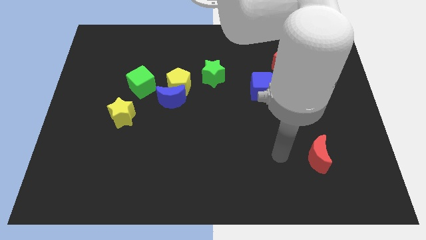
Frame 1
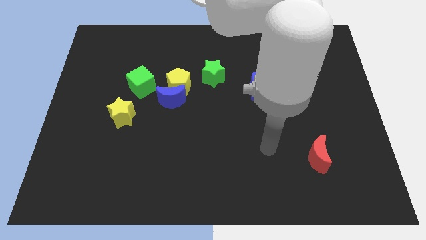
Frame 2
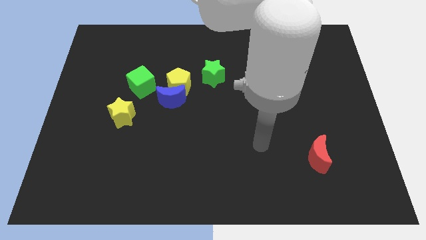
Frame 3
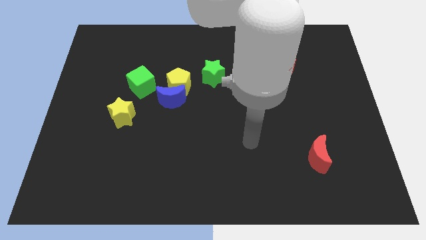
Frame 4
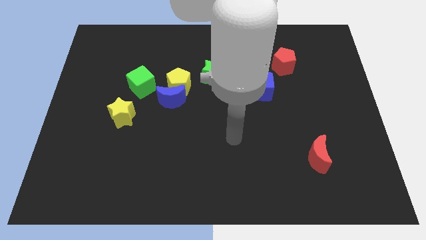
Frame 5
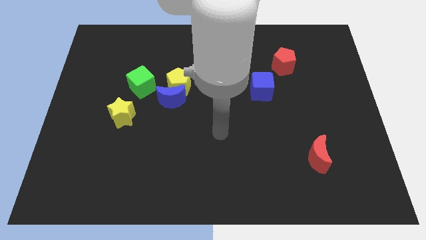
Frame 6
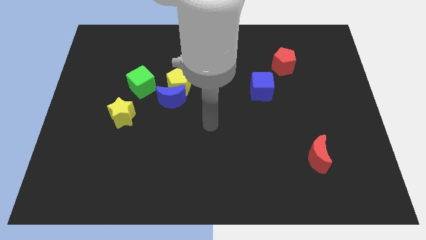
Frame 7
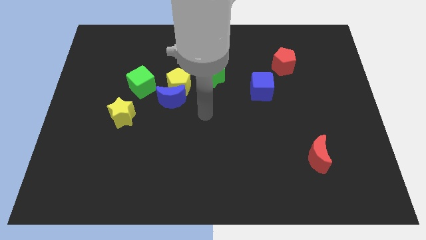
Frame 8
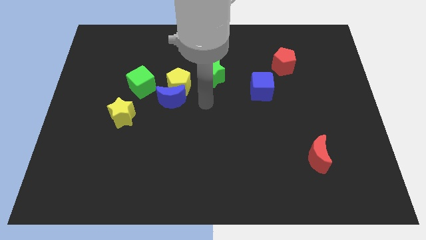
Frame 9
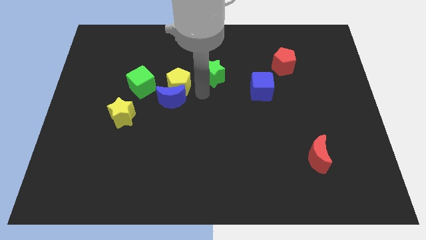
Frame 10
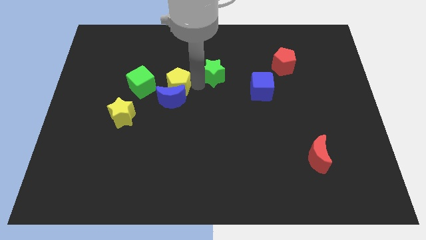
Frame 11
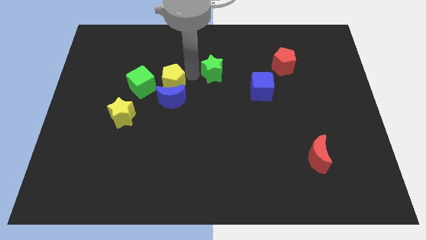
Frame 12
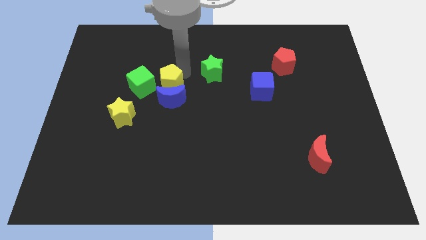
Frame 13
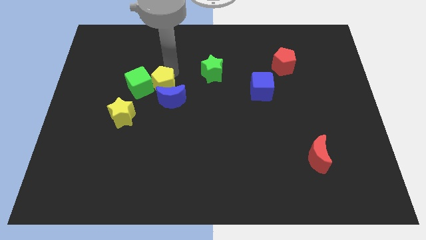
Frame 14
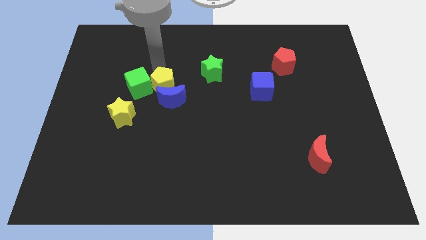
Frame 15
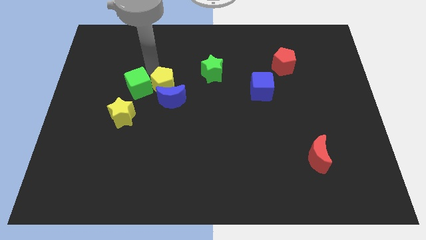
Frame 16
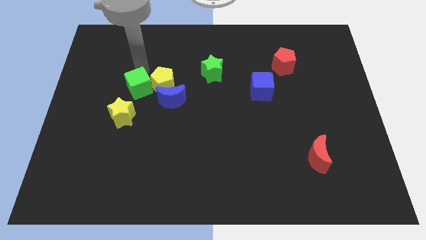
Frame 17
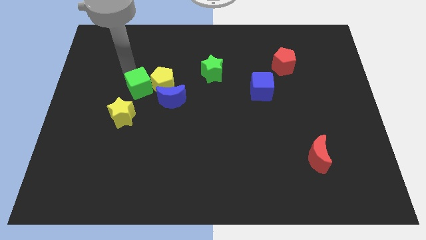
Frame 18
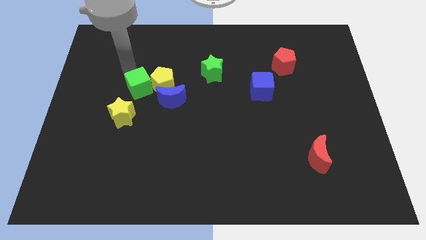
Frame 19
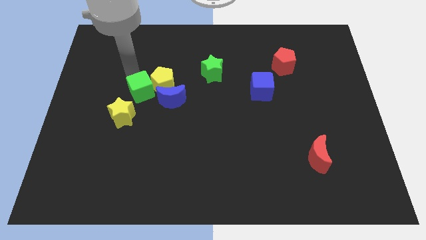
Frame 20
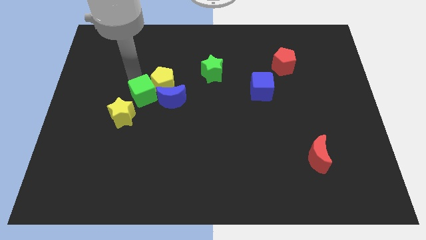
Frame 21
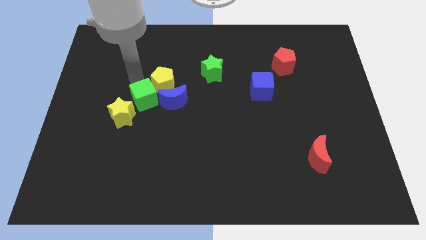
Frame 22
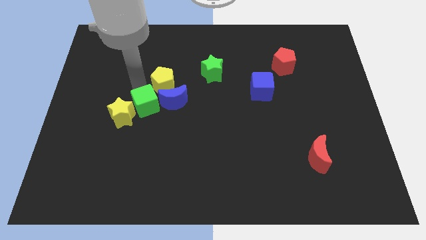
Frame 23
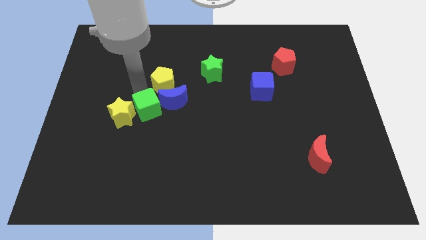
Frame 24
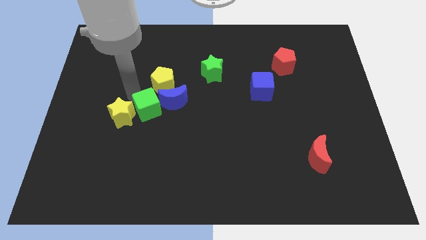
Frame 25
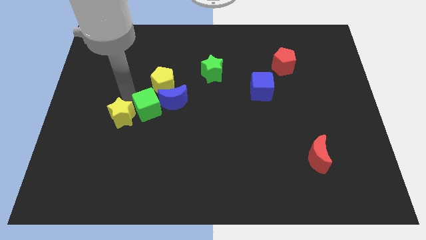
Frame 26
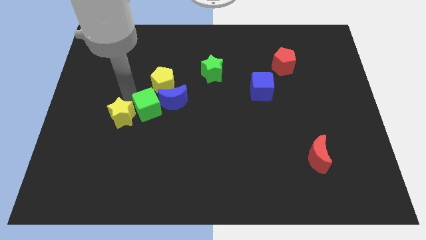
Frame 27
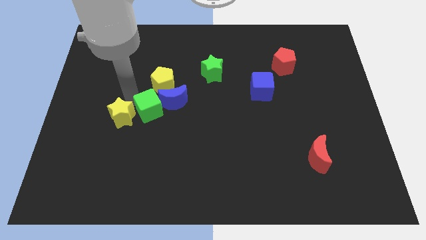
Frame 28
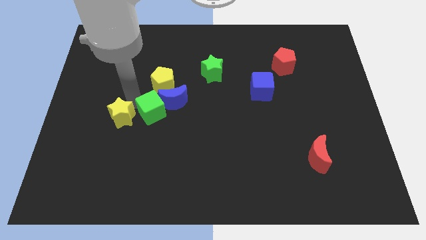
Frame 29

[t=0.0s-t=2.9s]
slide the green cube downwards and then right a bit

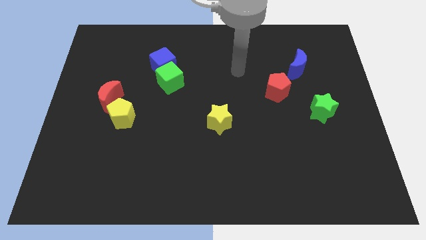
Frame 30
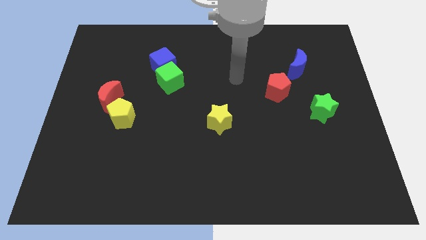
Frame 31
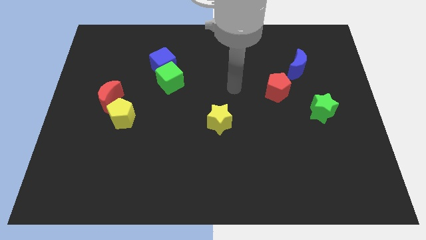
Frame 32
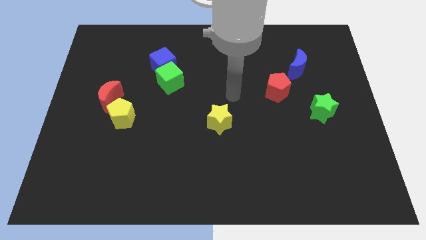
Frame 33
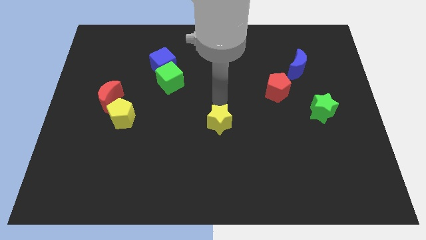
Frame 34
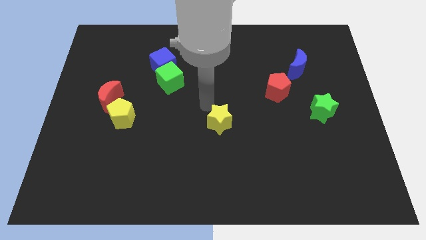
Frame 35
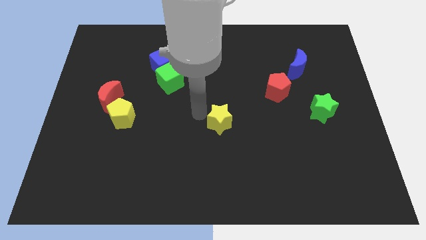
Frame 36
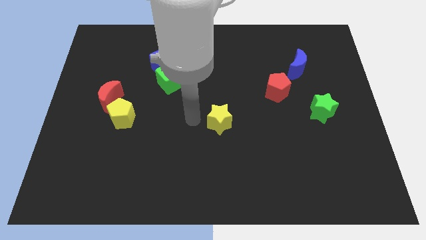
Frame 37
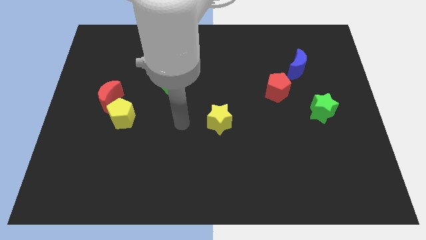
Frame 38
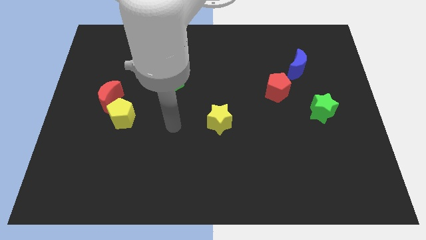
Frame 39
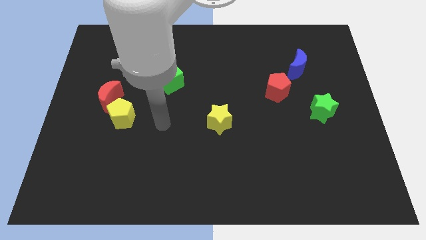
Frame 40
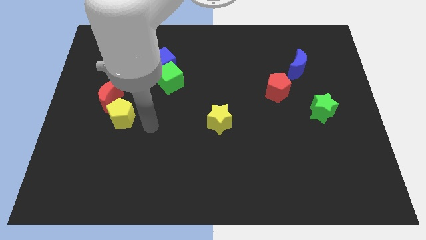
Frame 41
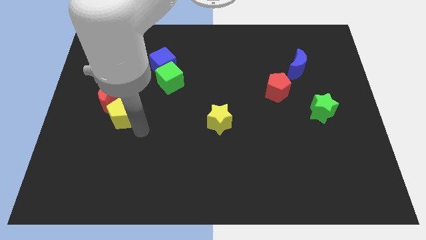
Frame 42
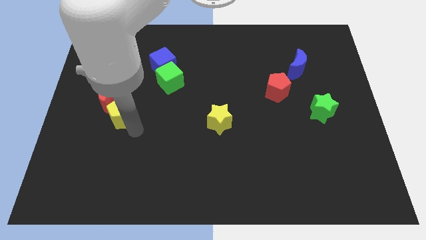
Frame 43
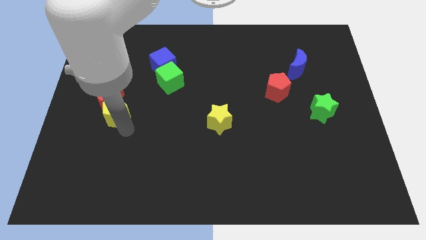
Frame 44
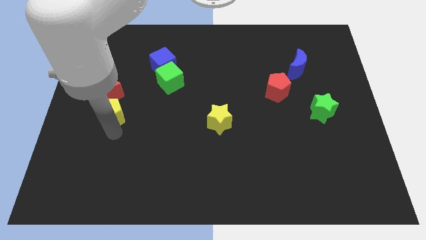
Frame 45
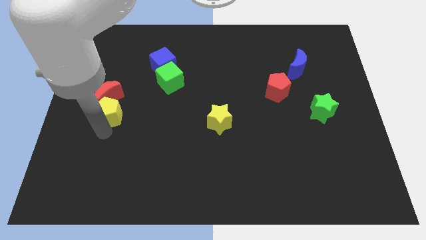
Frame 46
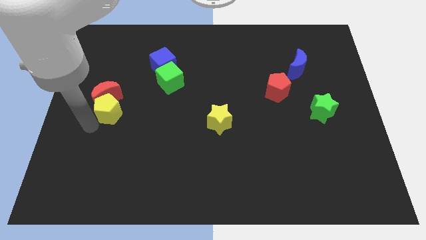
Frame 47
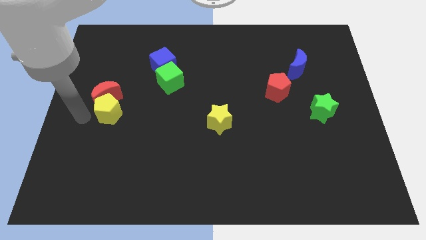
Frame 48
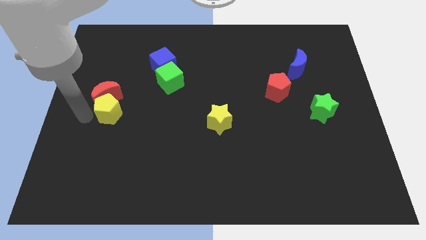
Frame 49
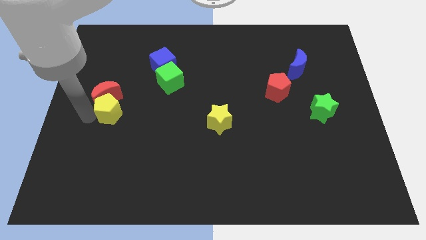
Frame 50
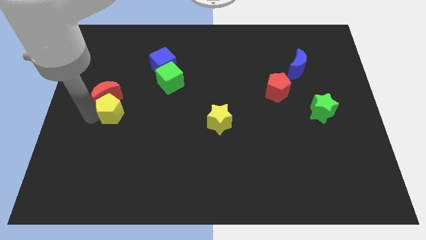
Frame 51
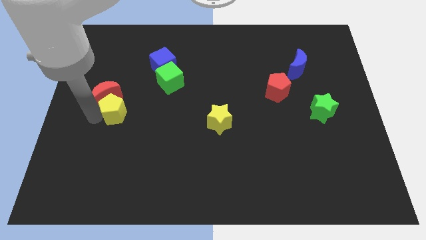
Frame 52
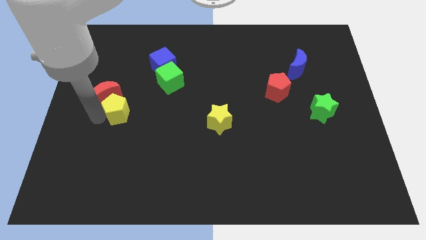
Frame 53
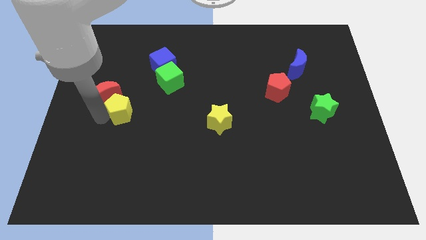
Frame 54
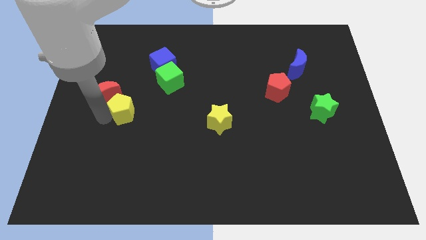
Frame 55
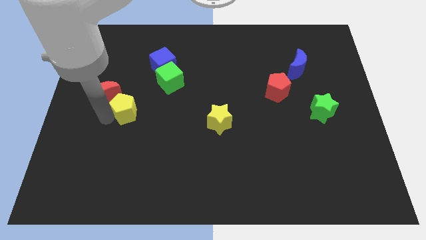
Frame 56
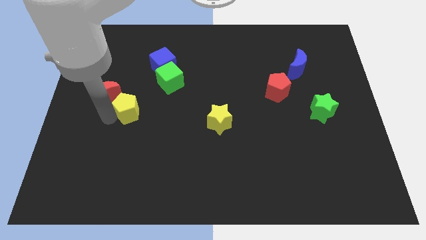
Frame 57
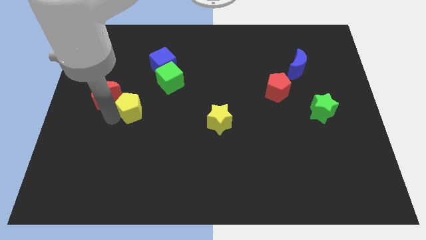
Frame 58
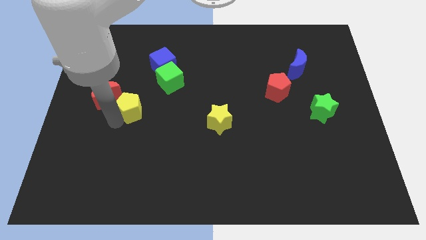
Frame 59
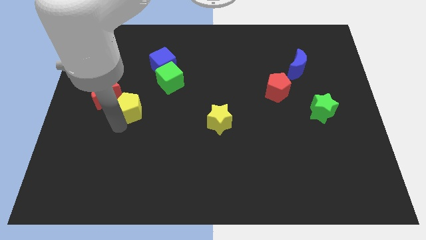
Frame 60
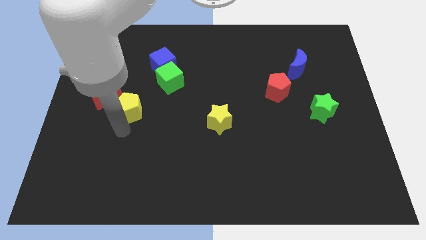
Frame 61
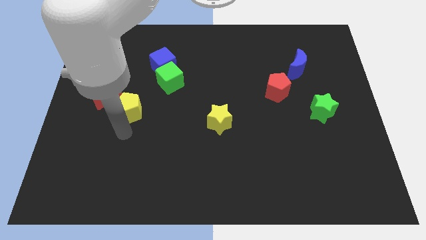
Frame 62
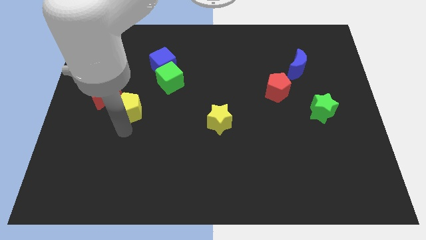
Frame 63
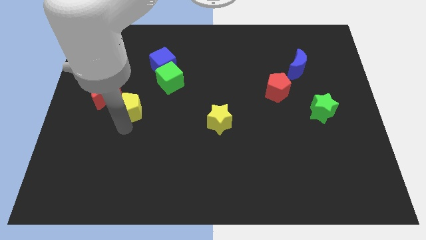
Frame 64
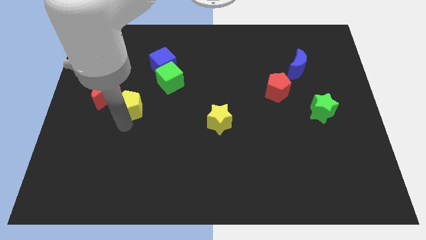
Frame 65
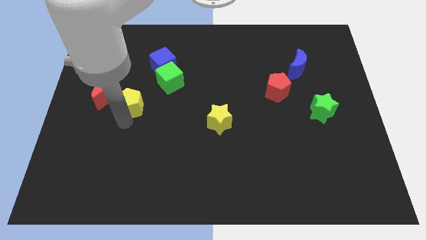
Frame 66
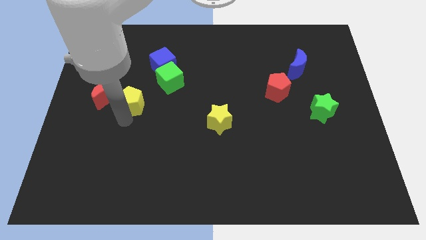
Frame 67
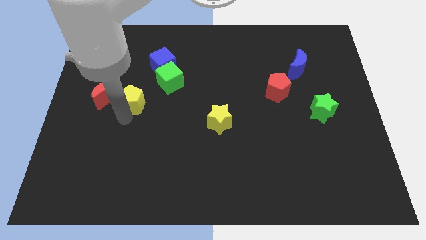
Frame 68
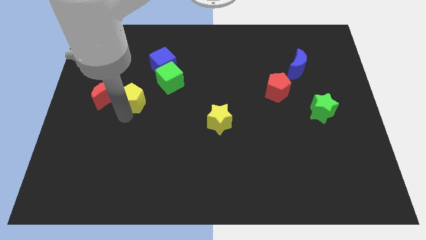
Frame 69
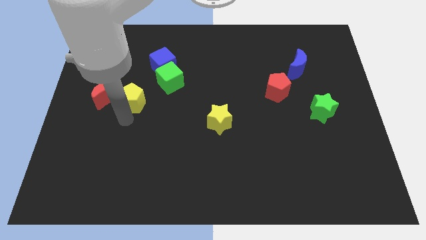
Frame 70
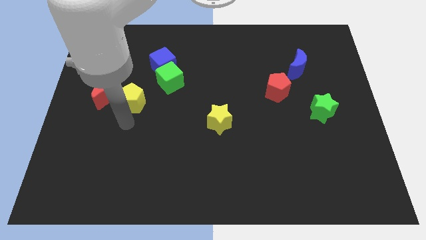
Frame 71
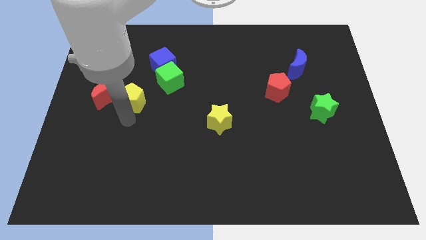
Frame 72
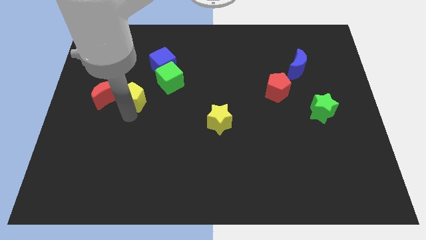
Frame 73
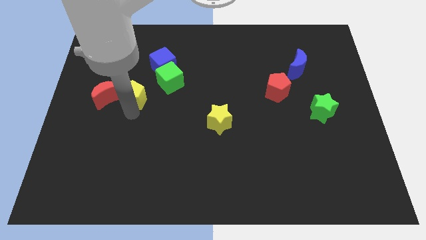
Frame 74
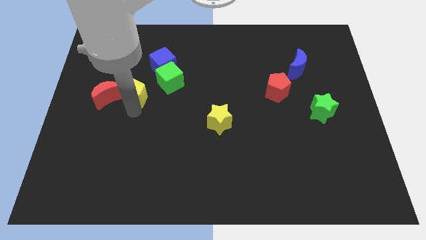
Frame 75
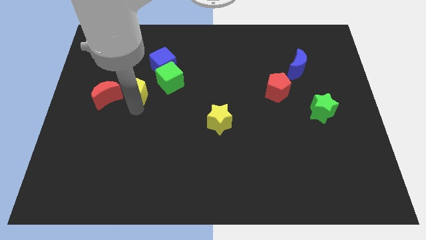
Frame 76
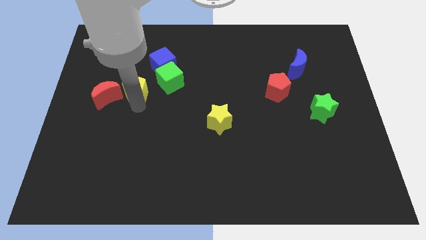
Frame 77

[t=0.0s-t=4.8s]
push the yellow pentagon somewhat up

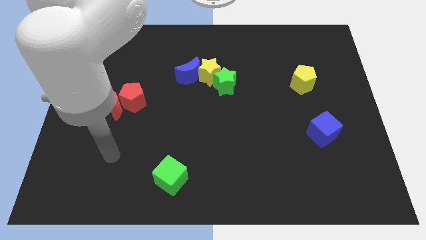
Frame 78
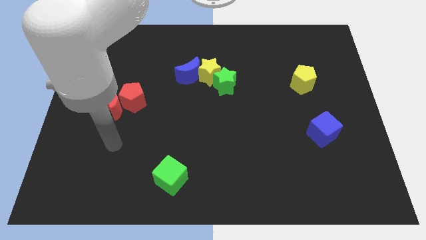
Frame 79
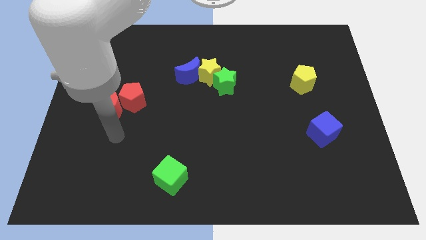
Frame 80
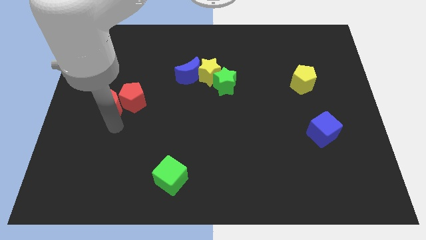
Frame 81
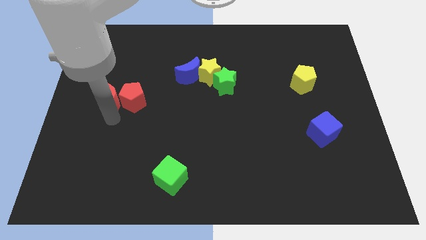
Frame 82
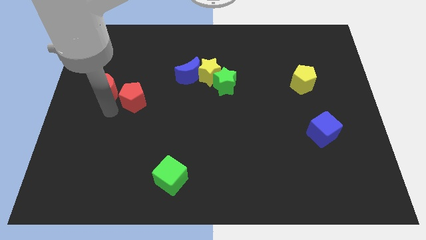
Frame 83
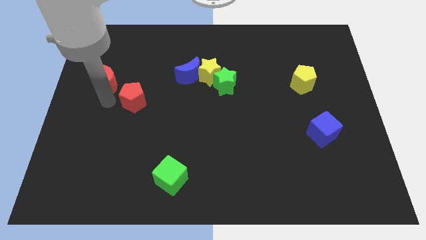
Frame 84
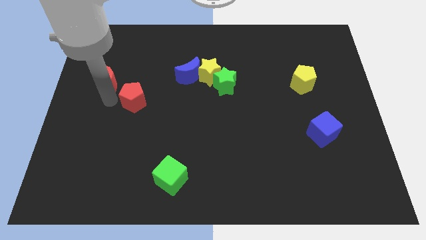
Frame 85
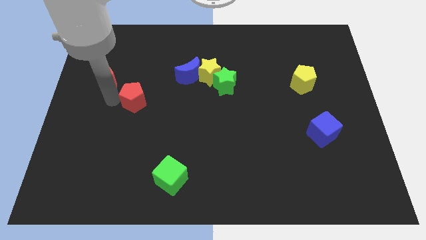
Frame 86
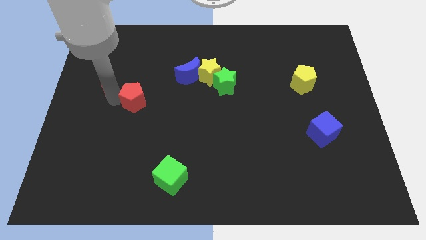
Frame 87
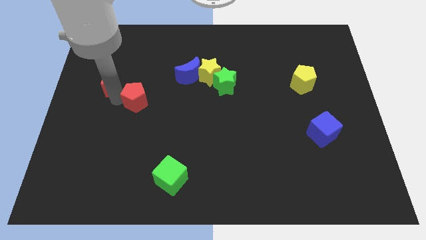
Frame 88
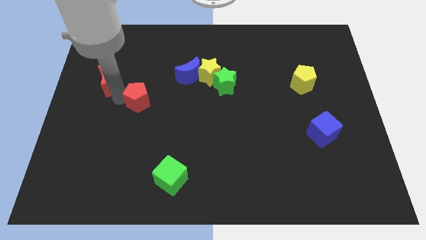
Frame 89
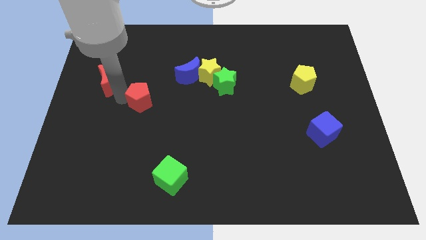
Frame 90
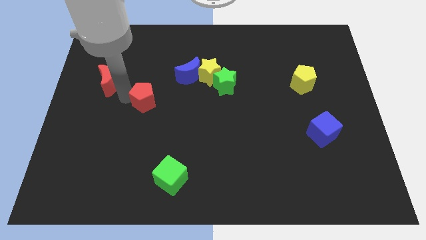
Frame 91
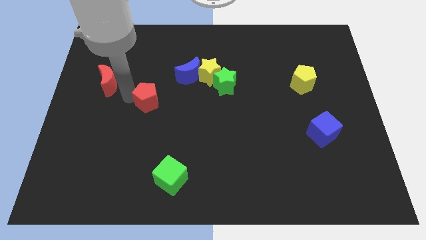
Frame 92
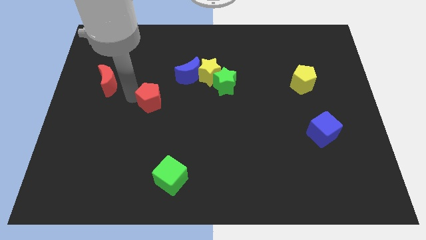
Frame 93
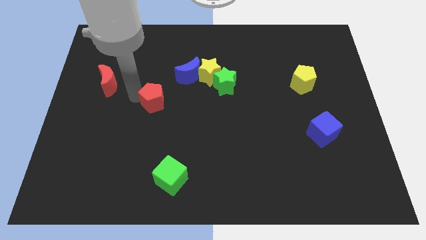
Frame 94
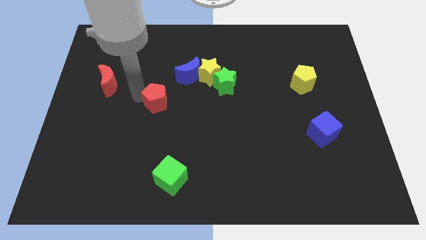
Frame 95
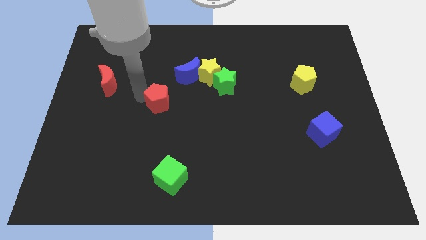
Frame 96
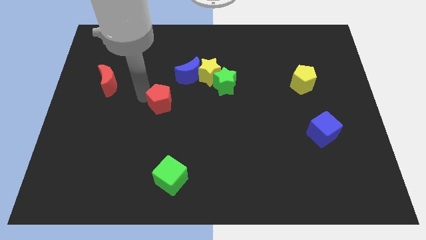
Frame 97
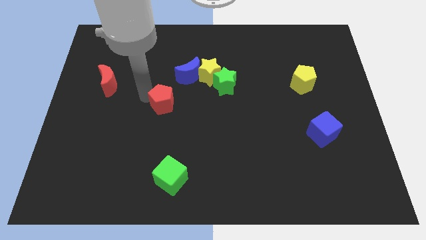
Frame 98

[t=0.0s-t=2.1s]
move the red pentagon to the right a little
